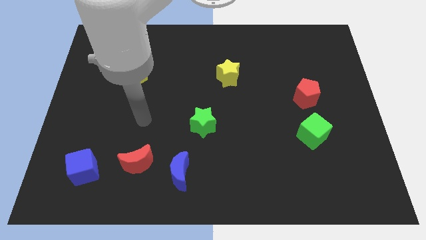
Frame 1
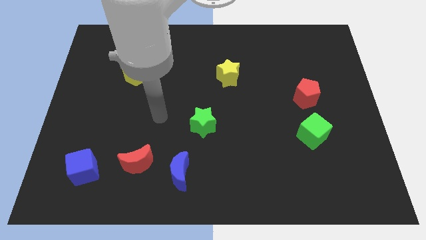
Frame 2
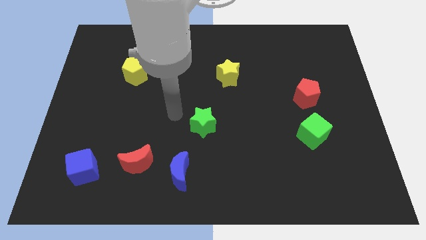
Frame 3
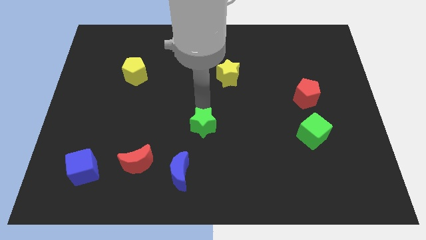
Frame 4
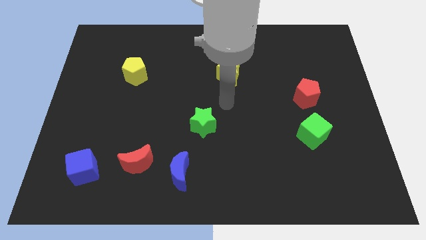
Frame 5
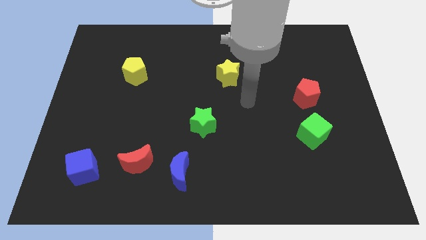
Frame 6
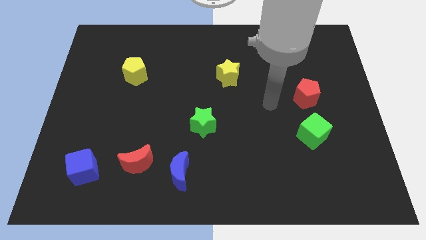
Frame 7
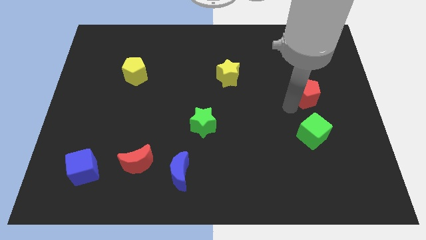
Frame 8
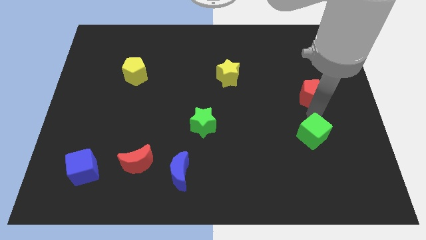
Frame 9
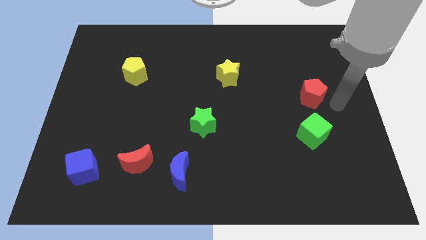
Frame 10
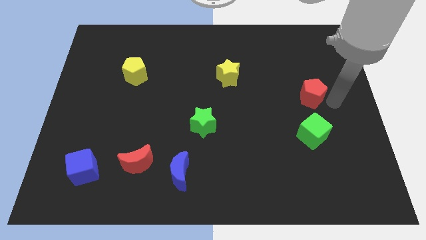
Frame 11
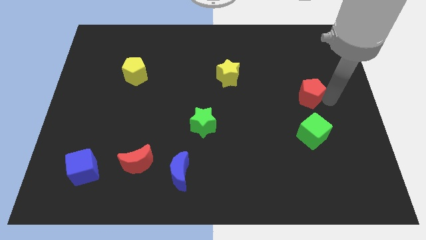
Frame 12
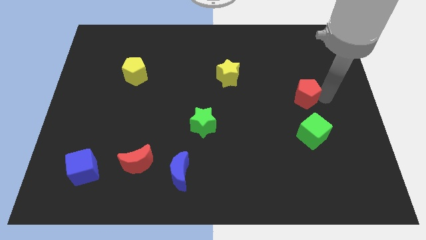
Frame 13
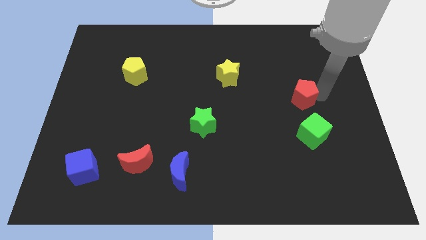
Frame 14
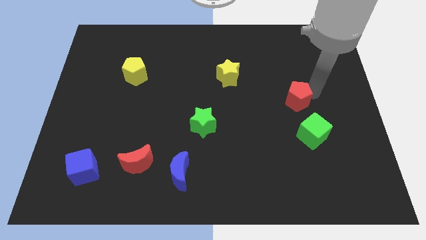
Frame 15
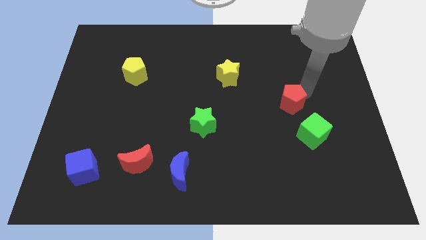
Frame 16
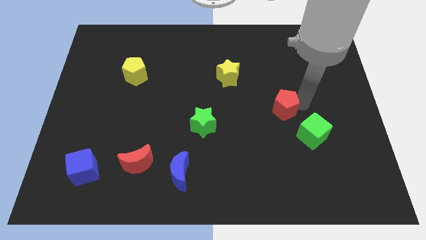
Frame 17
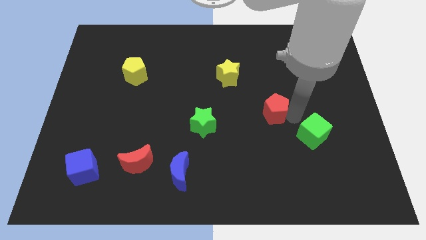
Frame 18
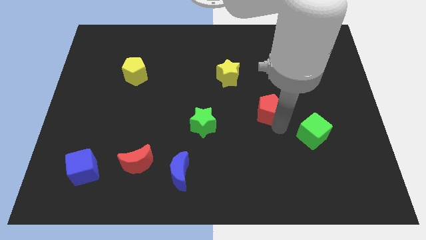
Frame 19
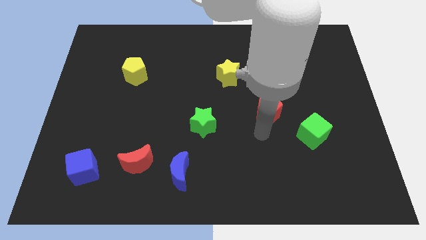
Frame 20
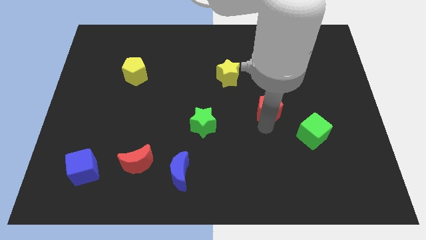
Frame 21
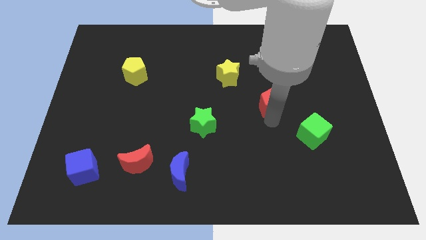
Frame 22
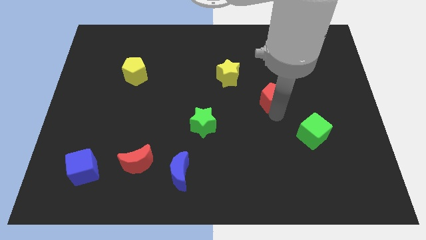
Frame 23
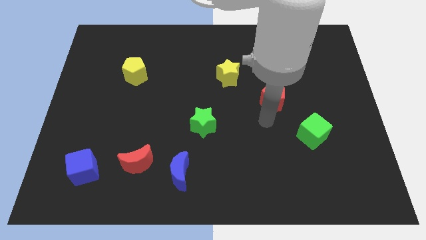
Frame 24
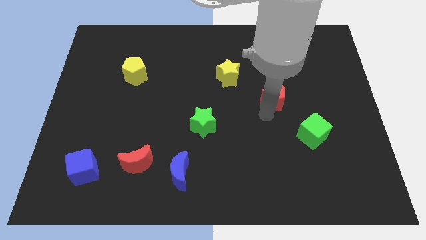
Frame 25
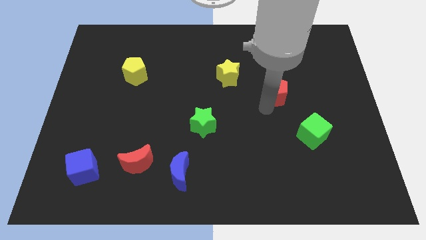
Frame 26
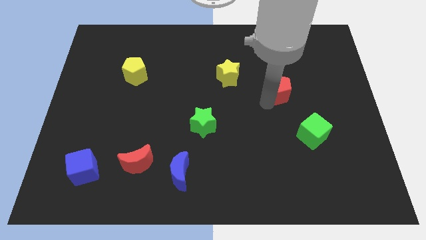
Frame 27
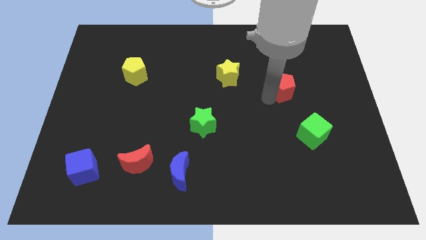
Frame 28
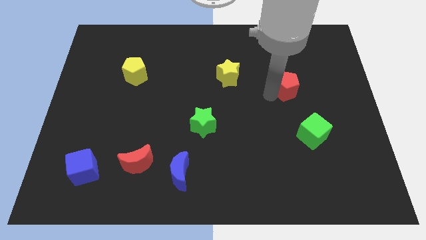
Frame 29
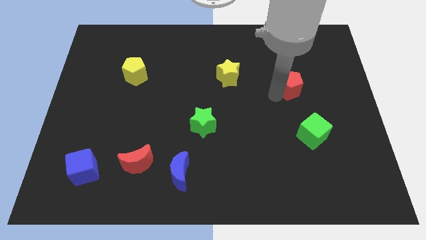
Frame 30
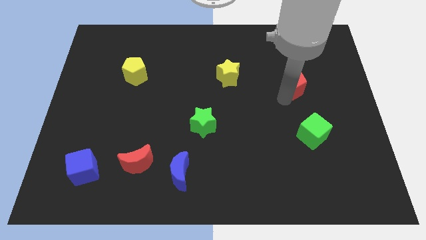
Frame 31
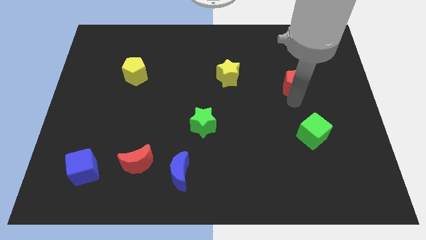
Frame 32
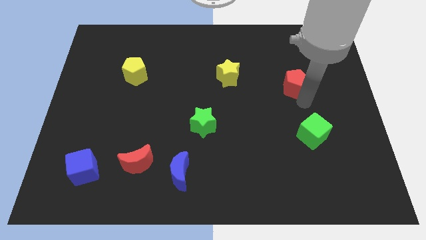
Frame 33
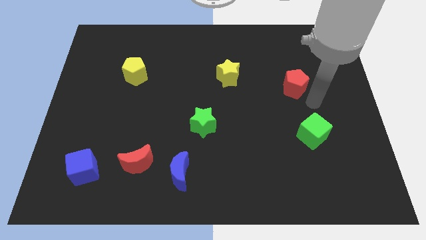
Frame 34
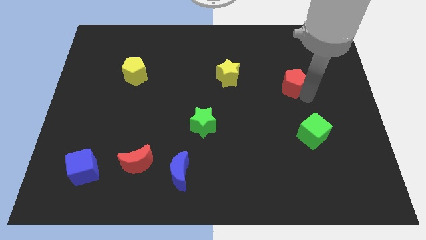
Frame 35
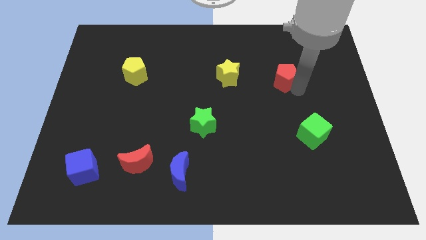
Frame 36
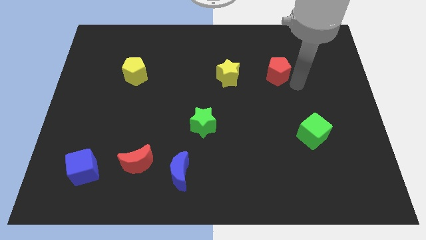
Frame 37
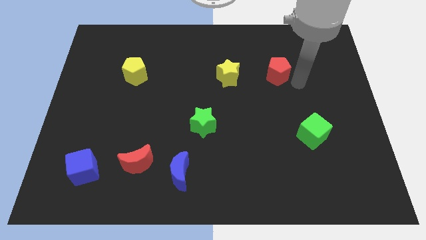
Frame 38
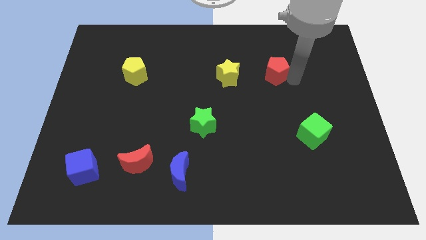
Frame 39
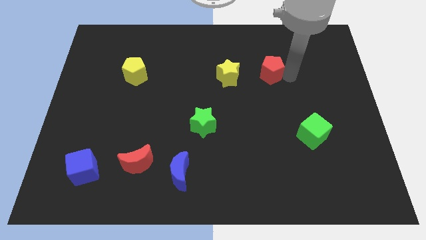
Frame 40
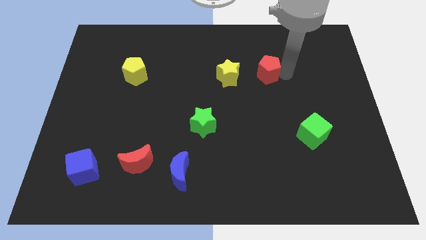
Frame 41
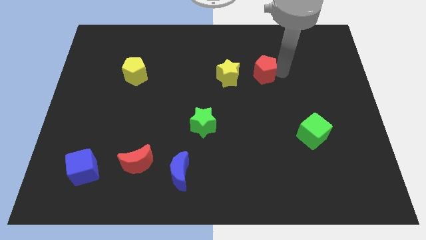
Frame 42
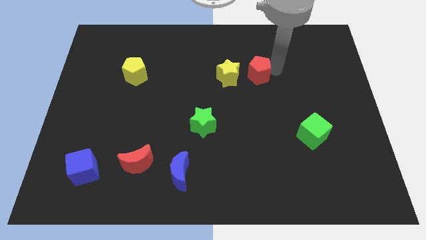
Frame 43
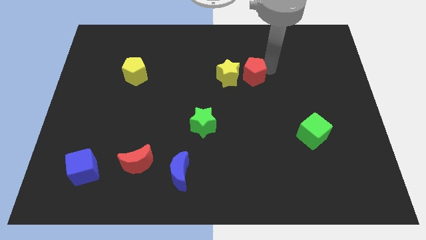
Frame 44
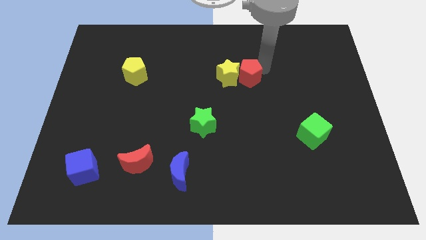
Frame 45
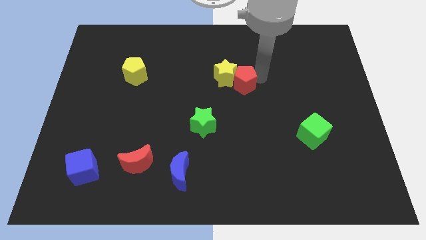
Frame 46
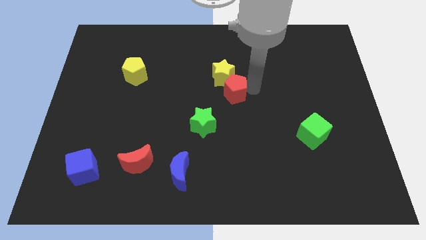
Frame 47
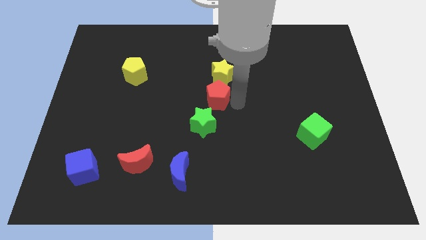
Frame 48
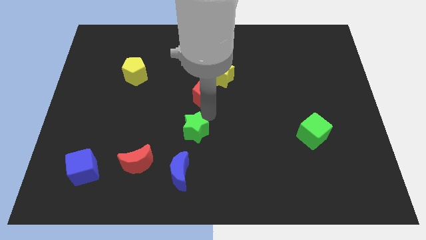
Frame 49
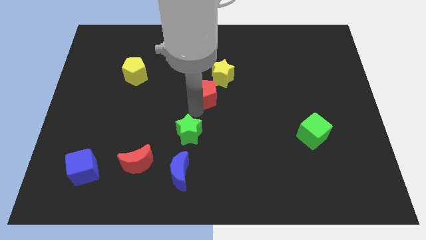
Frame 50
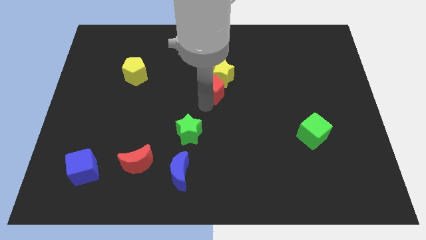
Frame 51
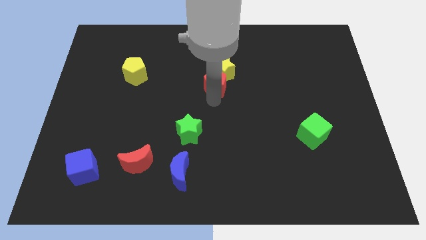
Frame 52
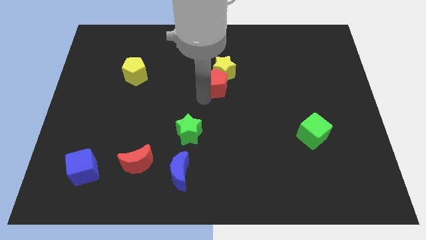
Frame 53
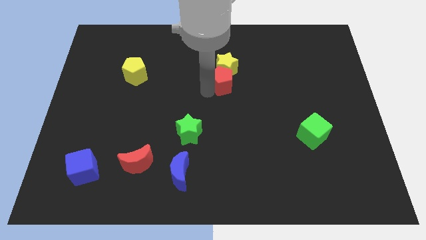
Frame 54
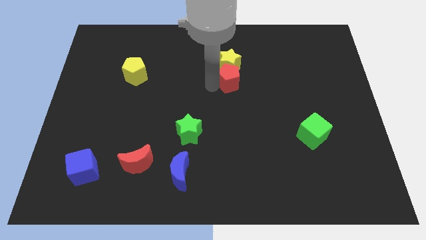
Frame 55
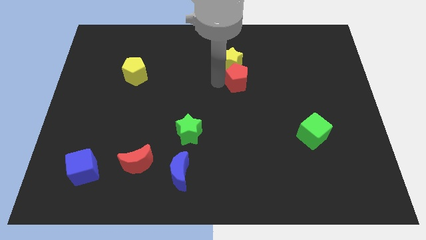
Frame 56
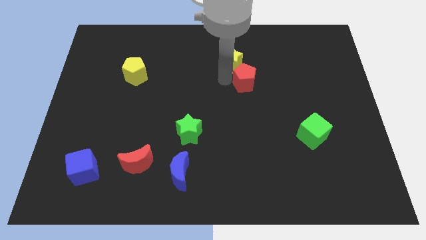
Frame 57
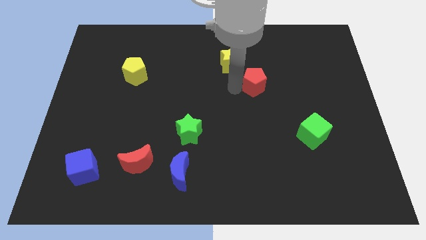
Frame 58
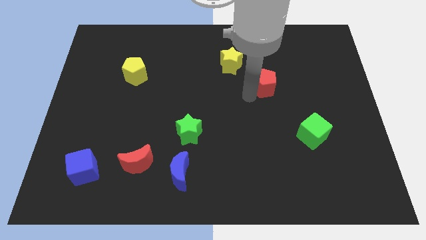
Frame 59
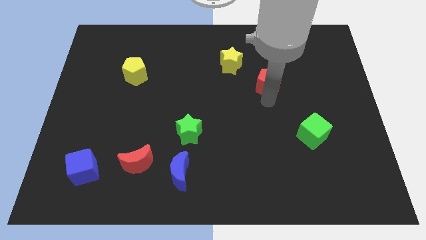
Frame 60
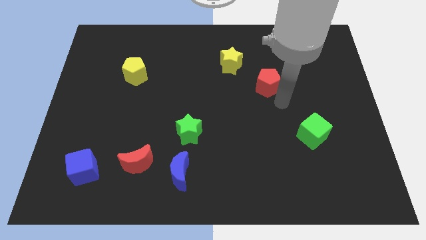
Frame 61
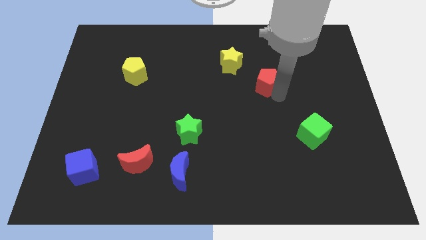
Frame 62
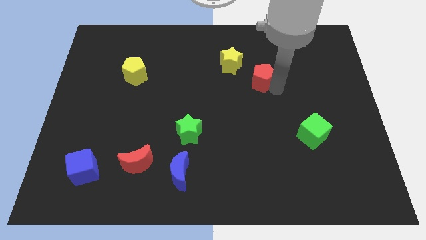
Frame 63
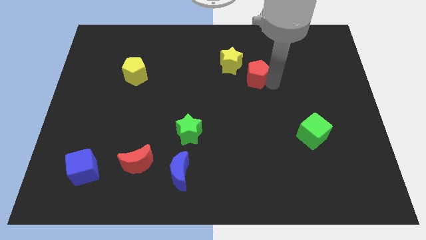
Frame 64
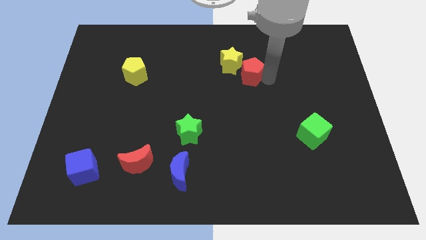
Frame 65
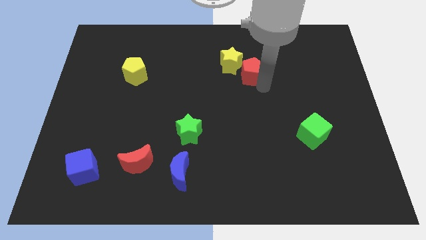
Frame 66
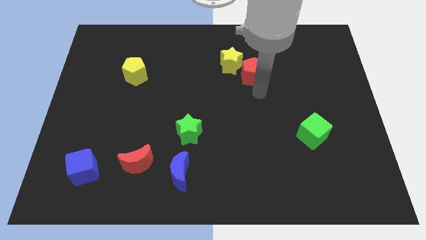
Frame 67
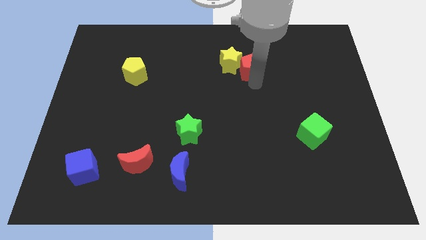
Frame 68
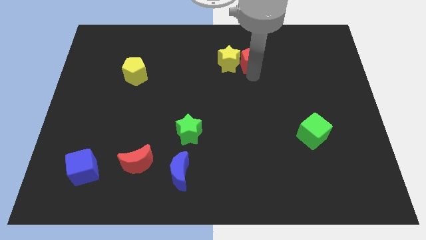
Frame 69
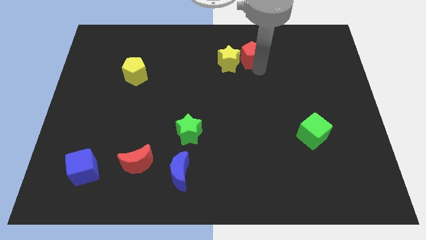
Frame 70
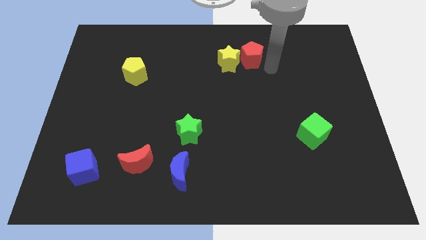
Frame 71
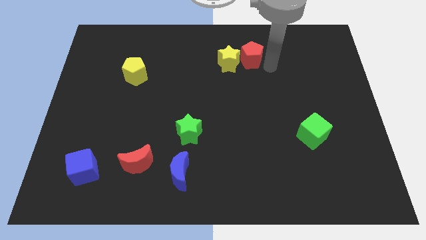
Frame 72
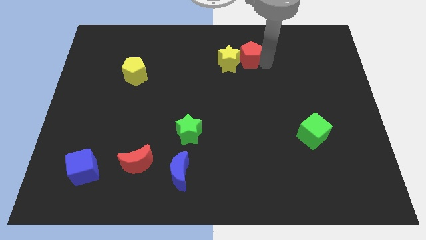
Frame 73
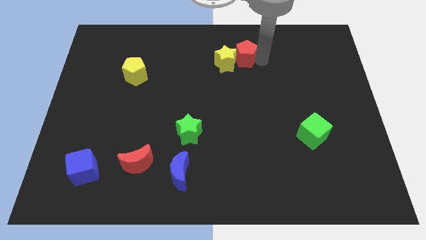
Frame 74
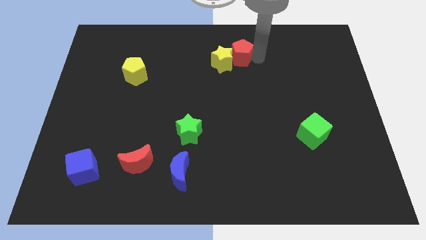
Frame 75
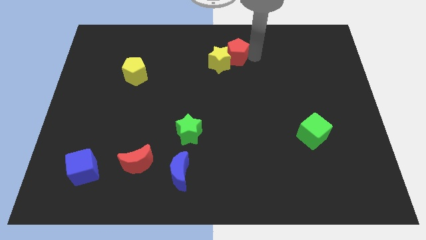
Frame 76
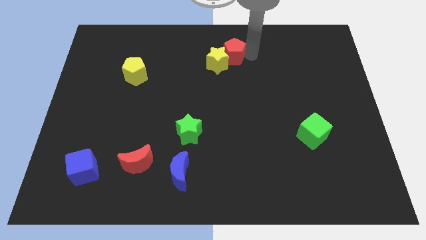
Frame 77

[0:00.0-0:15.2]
slide the red pentagon to the towards your base
